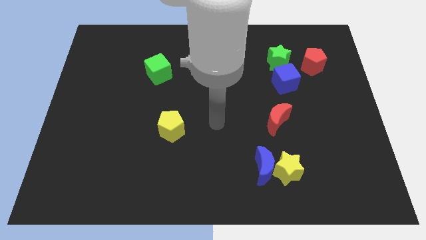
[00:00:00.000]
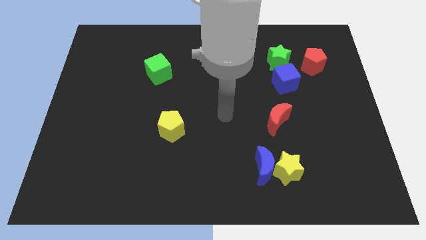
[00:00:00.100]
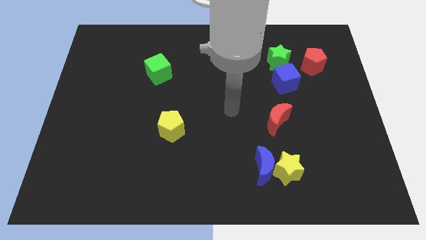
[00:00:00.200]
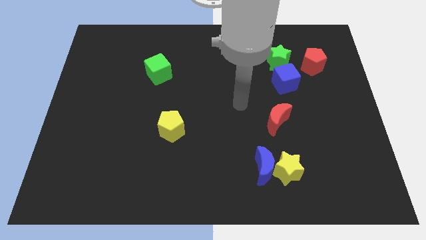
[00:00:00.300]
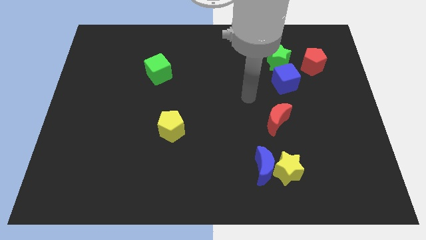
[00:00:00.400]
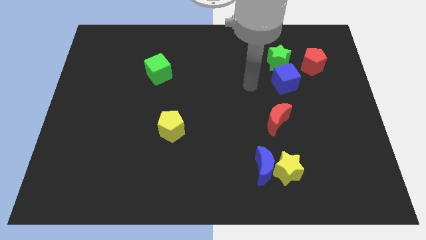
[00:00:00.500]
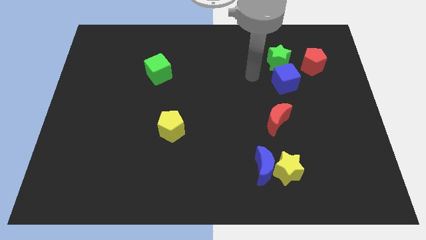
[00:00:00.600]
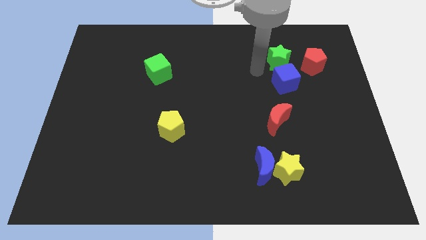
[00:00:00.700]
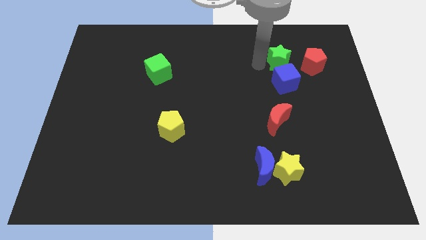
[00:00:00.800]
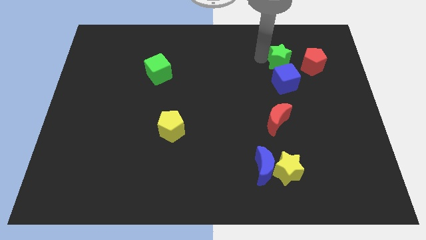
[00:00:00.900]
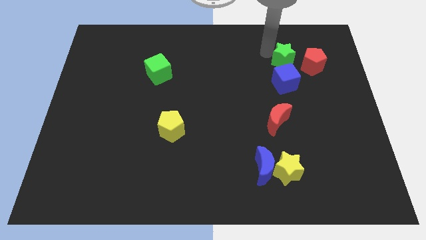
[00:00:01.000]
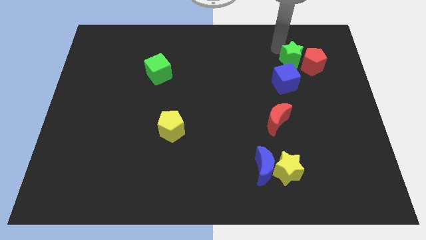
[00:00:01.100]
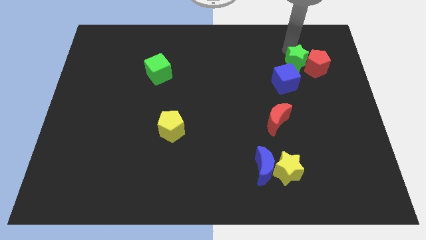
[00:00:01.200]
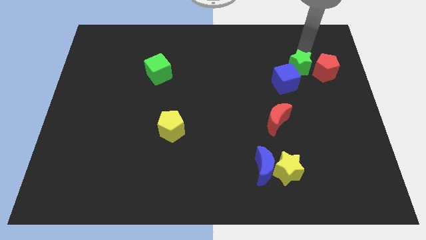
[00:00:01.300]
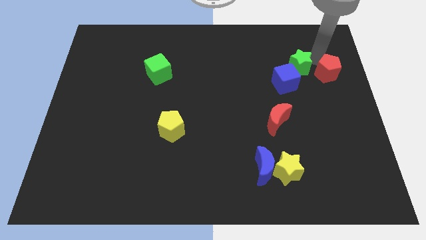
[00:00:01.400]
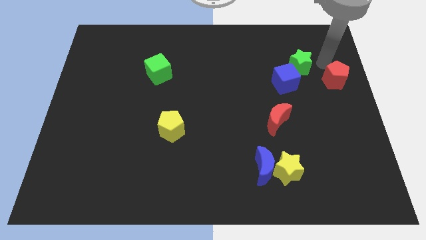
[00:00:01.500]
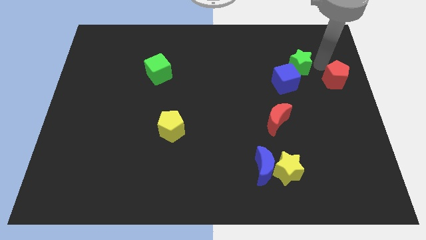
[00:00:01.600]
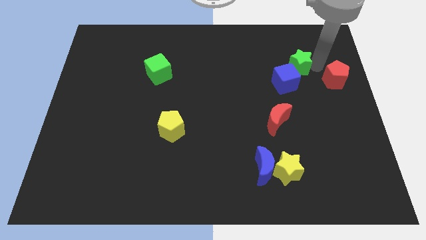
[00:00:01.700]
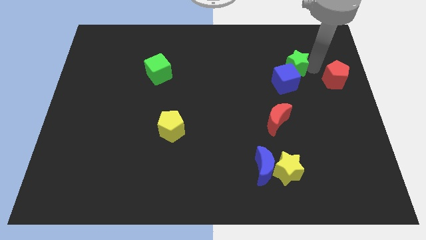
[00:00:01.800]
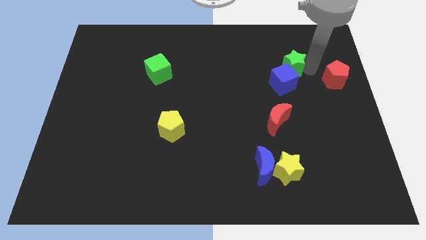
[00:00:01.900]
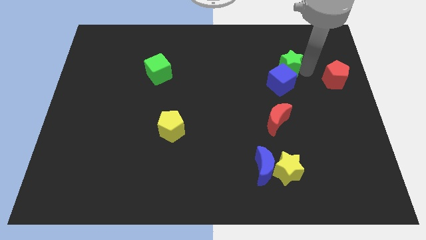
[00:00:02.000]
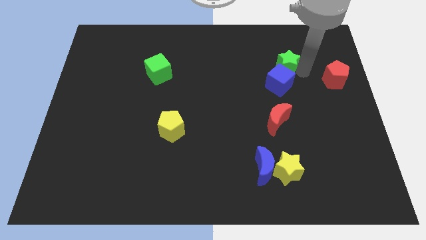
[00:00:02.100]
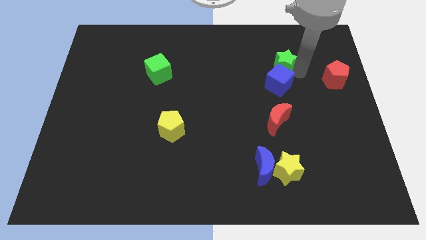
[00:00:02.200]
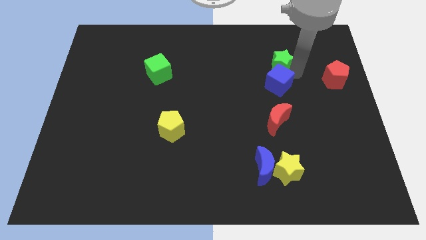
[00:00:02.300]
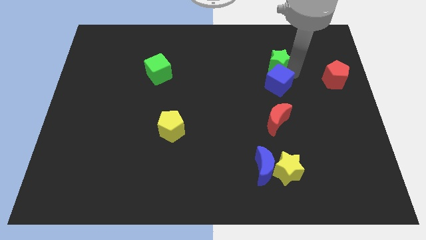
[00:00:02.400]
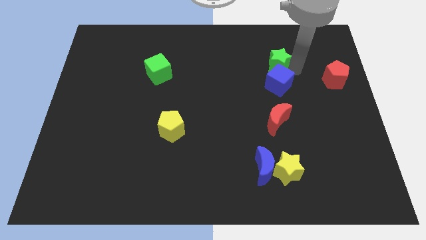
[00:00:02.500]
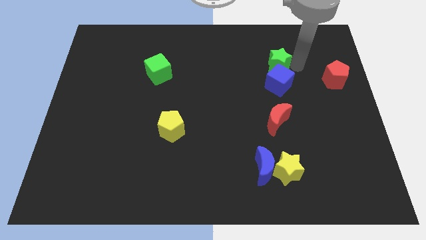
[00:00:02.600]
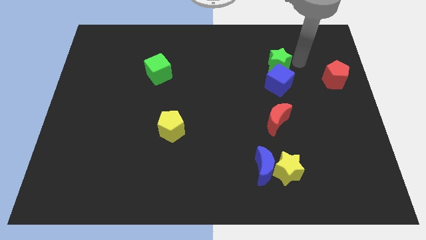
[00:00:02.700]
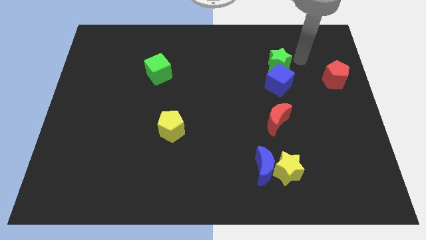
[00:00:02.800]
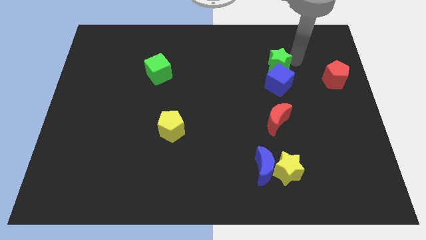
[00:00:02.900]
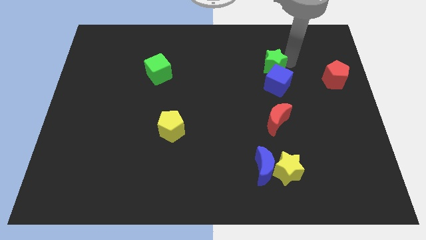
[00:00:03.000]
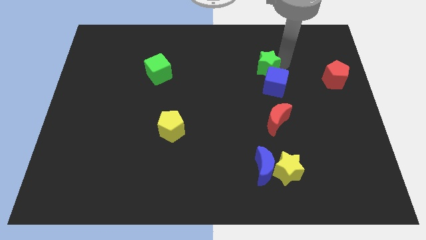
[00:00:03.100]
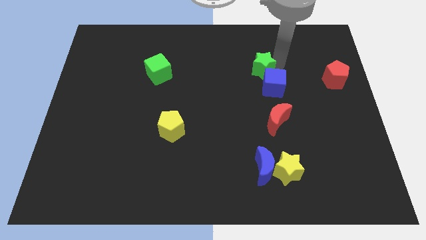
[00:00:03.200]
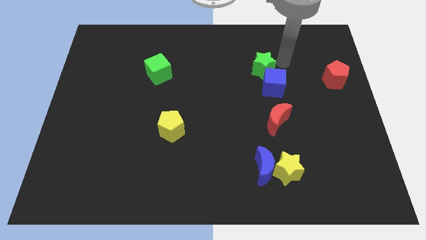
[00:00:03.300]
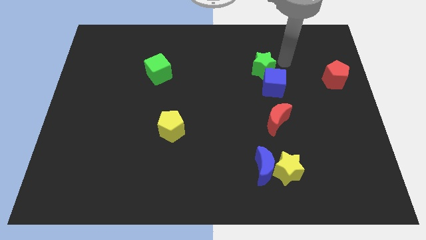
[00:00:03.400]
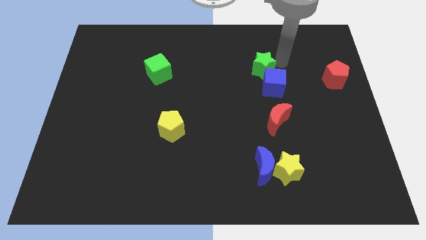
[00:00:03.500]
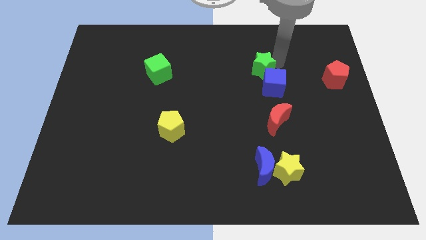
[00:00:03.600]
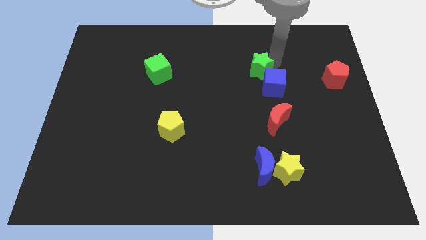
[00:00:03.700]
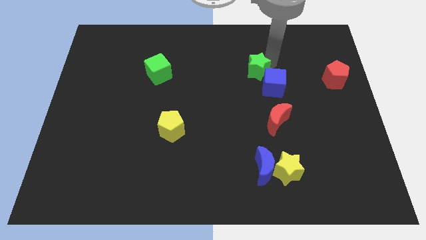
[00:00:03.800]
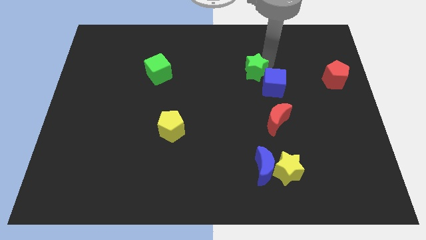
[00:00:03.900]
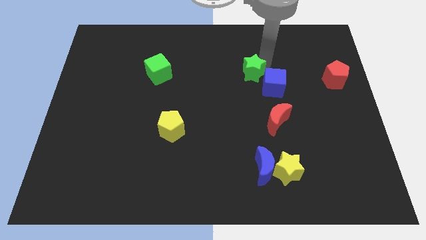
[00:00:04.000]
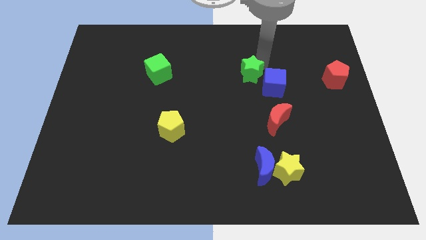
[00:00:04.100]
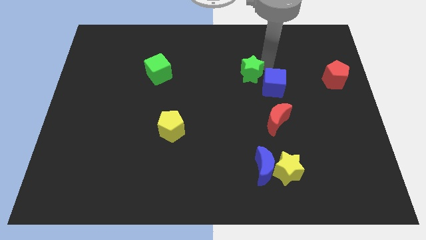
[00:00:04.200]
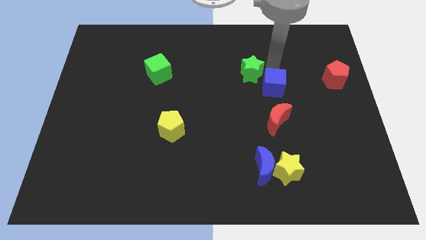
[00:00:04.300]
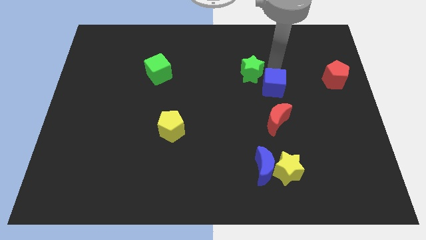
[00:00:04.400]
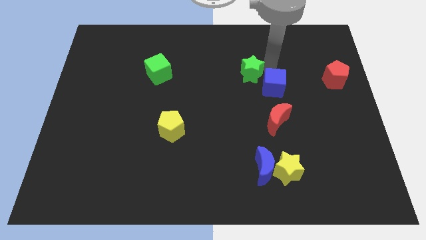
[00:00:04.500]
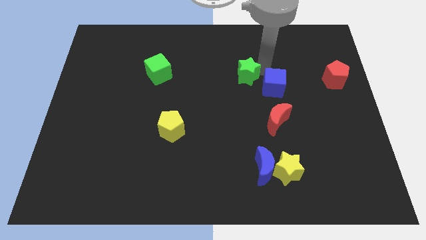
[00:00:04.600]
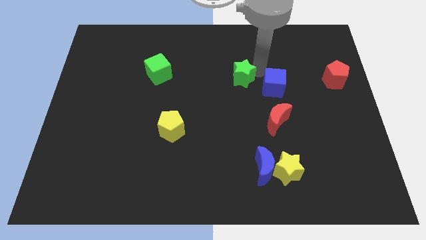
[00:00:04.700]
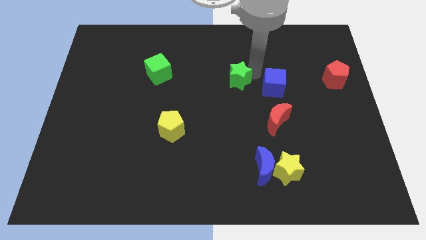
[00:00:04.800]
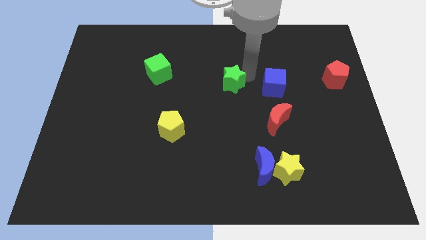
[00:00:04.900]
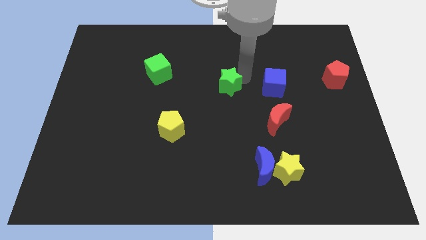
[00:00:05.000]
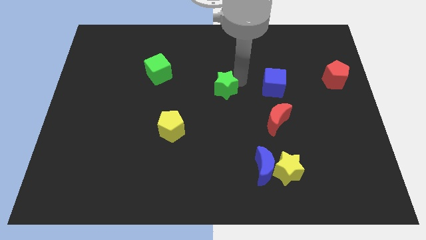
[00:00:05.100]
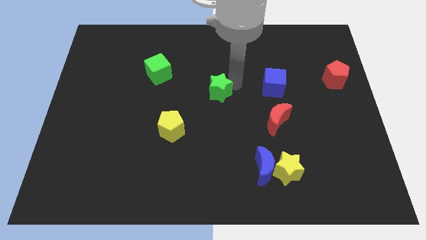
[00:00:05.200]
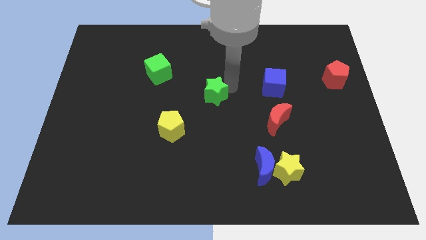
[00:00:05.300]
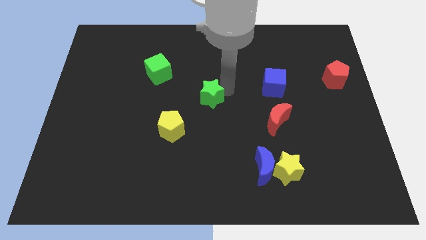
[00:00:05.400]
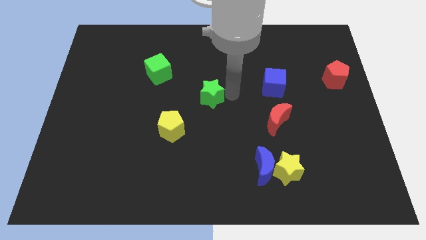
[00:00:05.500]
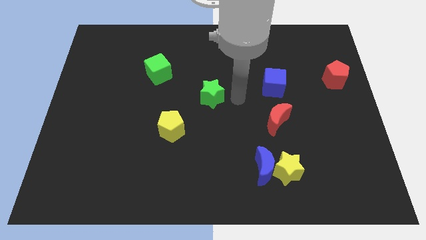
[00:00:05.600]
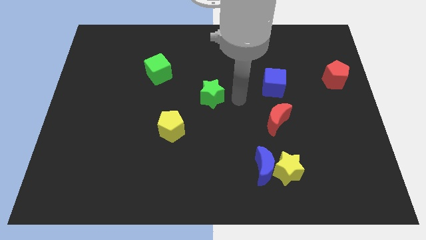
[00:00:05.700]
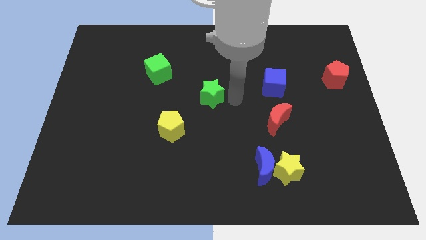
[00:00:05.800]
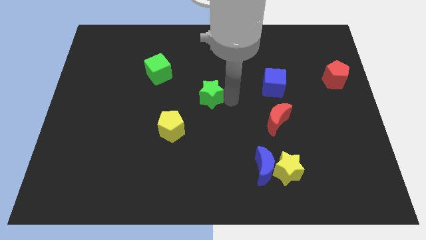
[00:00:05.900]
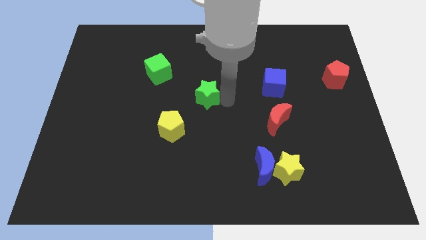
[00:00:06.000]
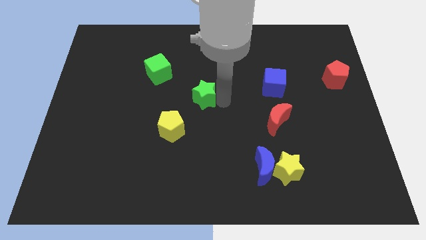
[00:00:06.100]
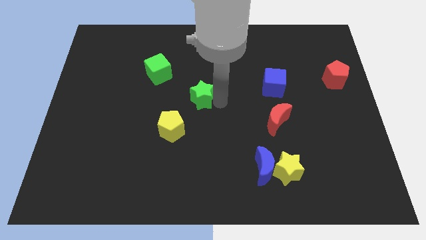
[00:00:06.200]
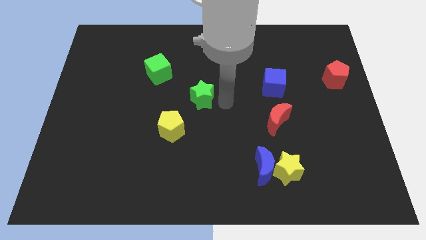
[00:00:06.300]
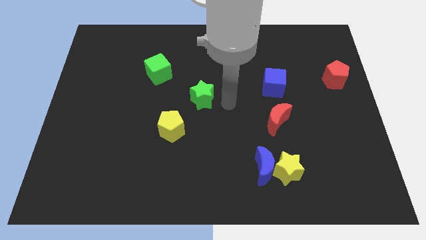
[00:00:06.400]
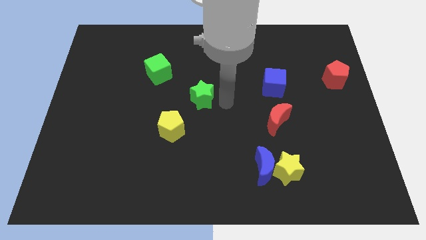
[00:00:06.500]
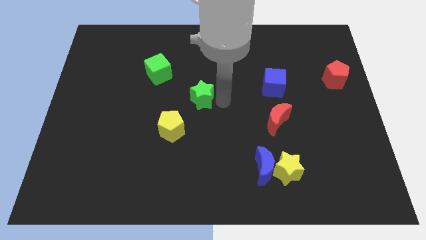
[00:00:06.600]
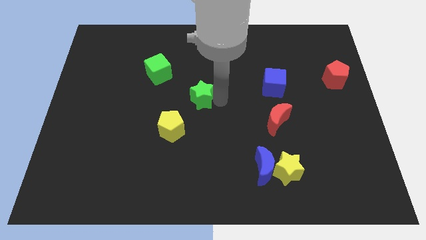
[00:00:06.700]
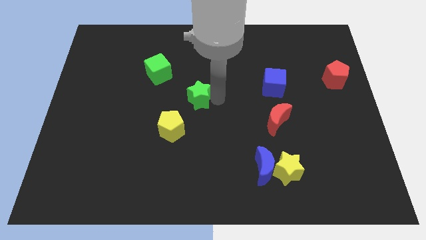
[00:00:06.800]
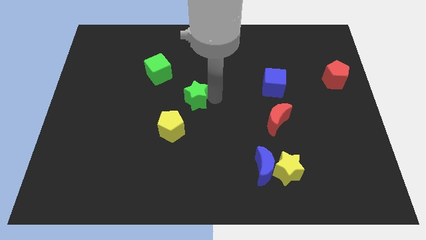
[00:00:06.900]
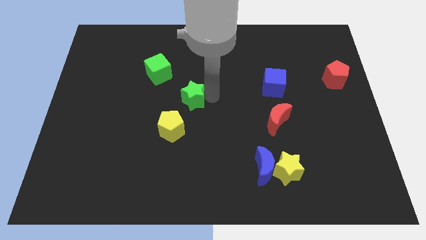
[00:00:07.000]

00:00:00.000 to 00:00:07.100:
slide the green star to the top side of the yellow pentagon

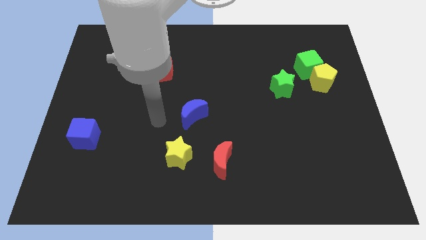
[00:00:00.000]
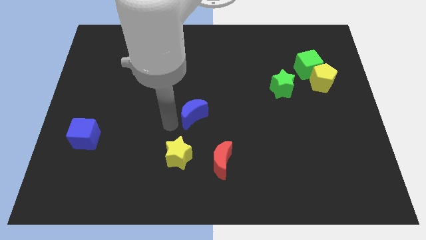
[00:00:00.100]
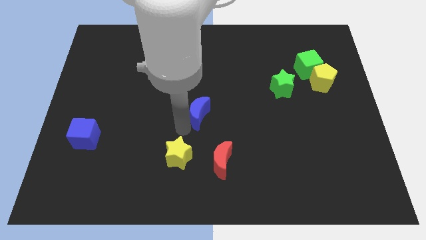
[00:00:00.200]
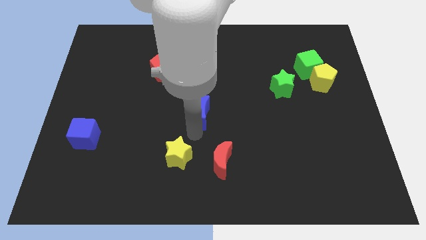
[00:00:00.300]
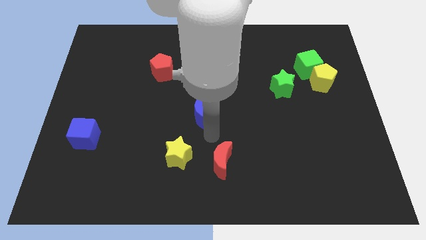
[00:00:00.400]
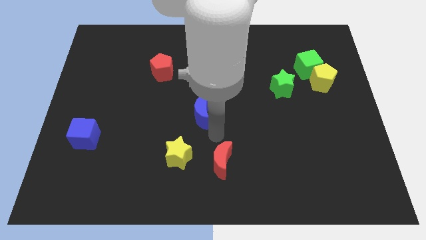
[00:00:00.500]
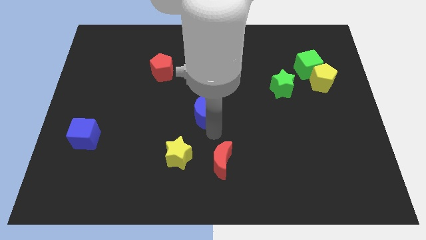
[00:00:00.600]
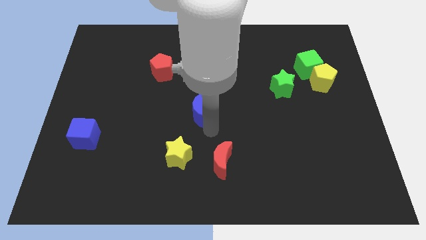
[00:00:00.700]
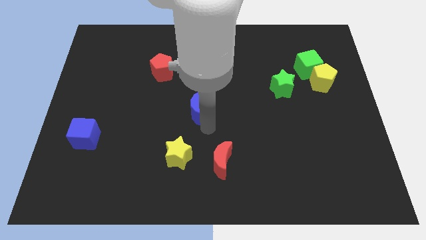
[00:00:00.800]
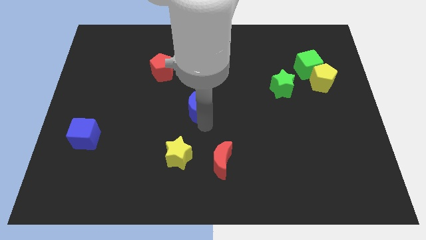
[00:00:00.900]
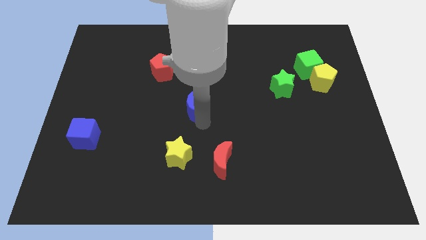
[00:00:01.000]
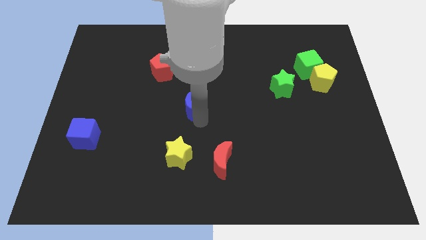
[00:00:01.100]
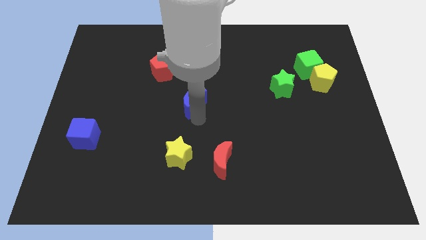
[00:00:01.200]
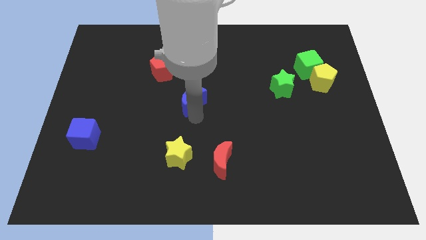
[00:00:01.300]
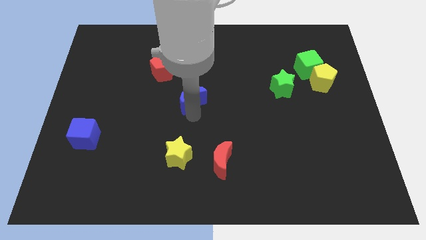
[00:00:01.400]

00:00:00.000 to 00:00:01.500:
slide the blue moon diagonally down and to the right of the red pentagon
